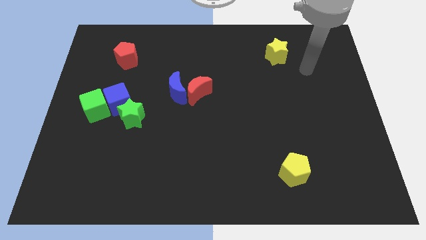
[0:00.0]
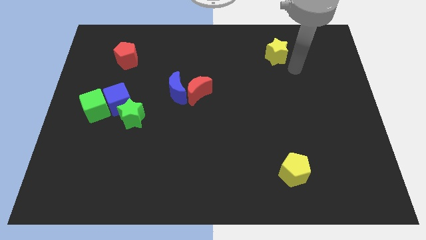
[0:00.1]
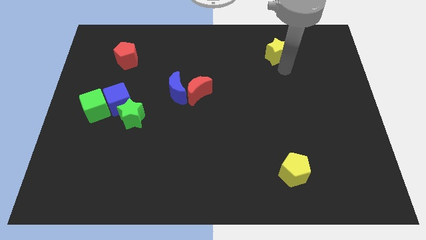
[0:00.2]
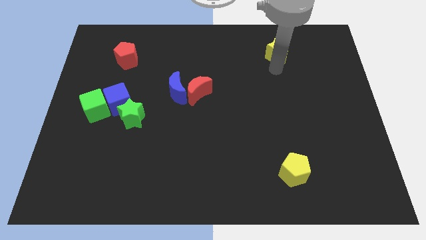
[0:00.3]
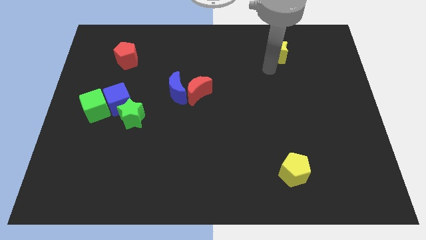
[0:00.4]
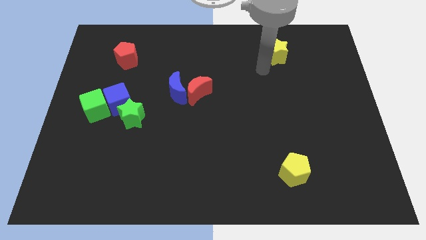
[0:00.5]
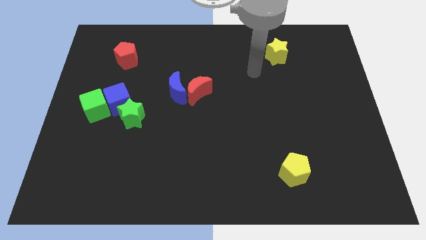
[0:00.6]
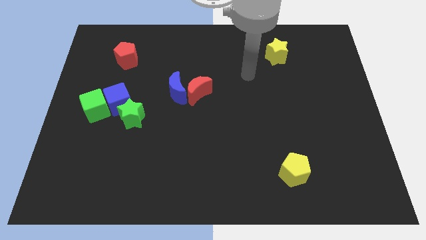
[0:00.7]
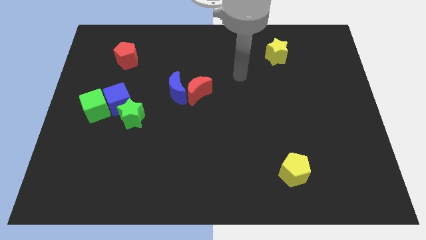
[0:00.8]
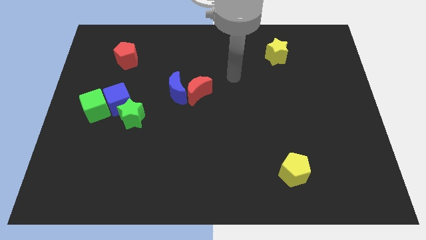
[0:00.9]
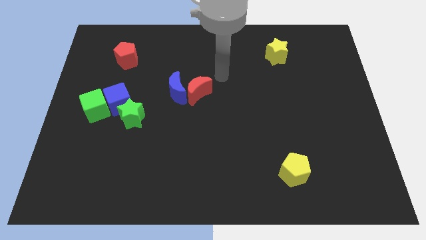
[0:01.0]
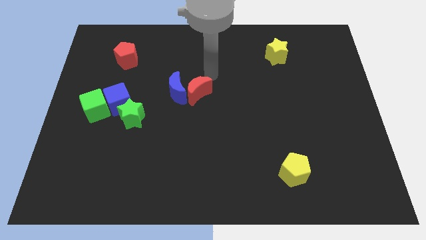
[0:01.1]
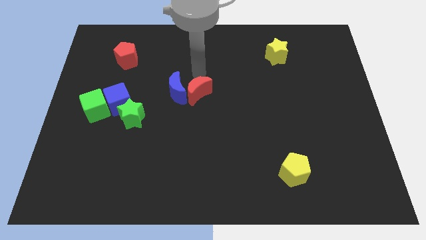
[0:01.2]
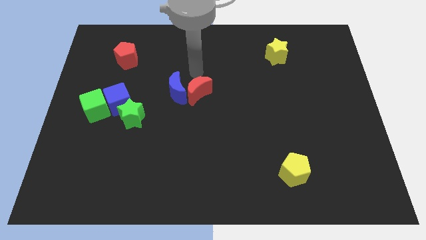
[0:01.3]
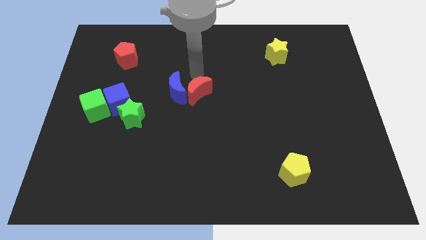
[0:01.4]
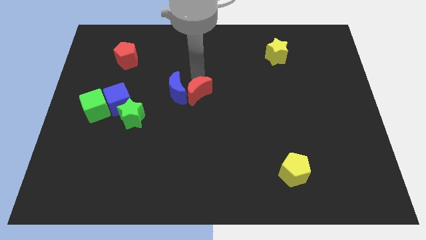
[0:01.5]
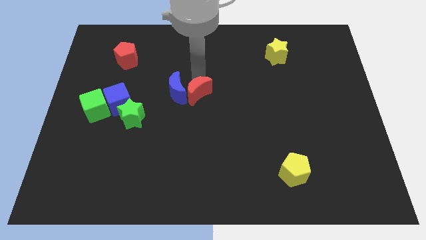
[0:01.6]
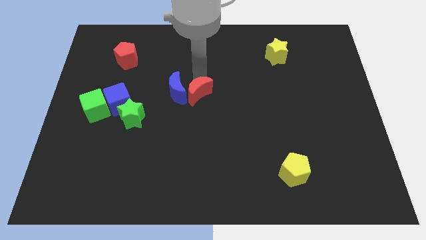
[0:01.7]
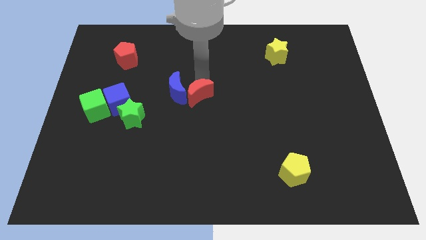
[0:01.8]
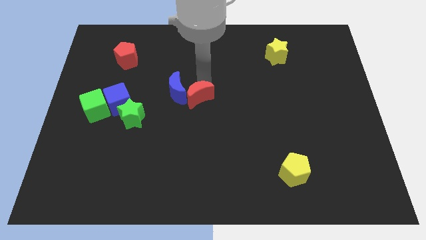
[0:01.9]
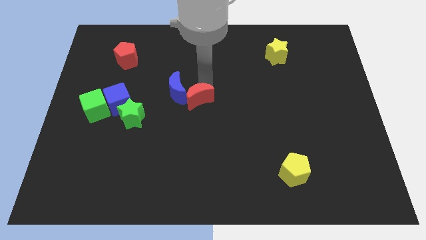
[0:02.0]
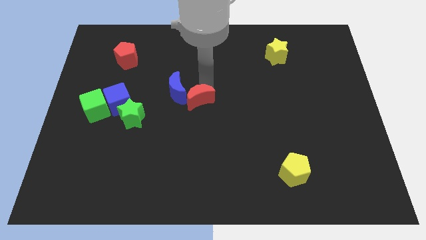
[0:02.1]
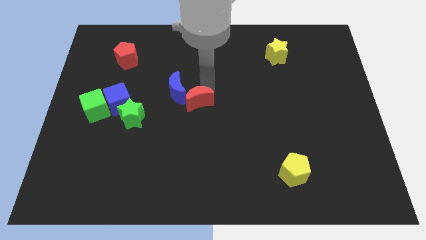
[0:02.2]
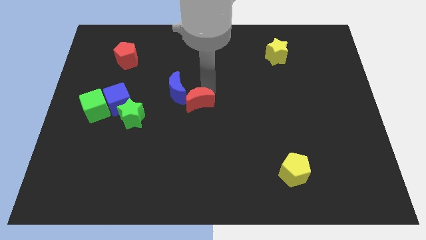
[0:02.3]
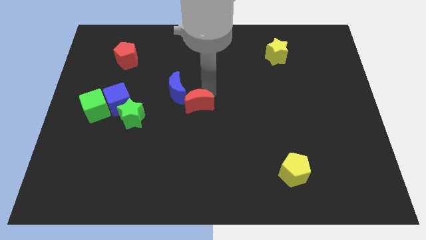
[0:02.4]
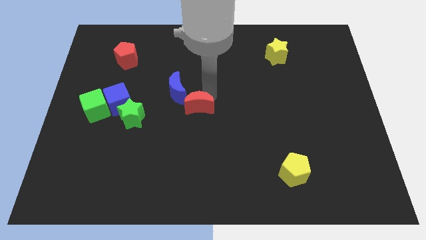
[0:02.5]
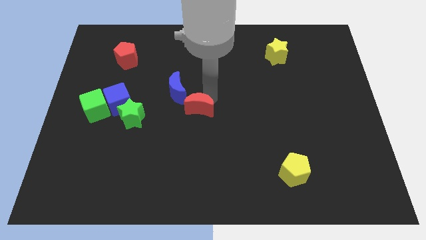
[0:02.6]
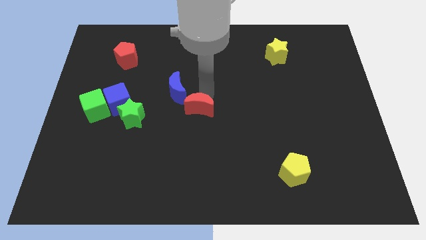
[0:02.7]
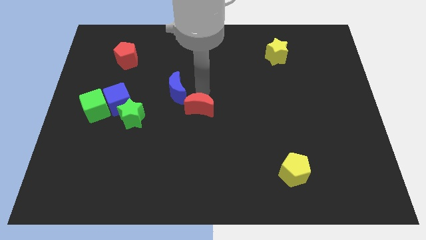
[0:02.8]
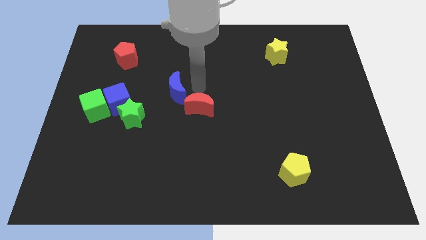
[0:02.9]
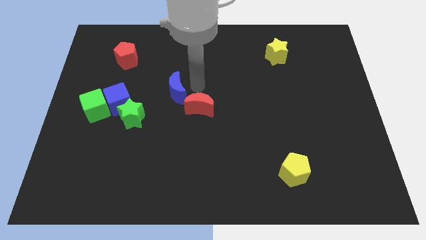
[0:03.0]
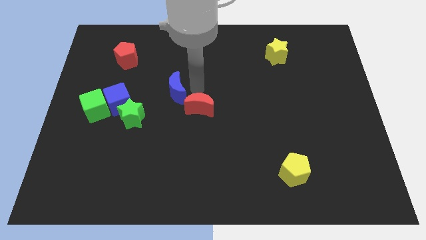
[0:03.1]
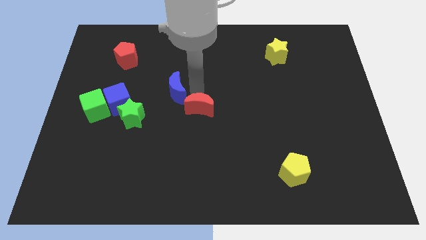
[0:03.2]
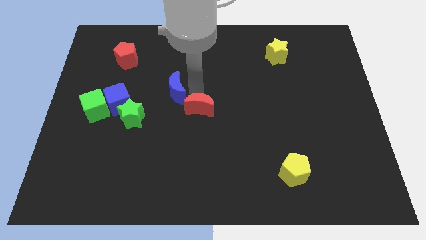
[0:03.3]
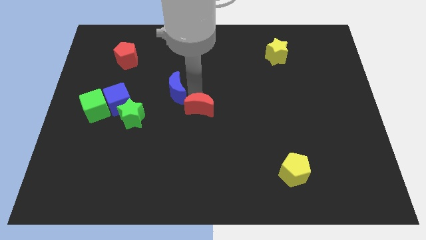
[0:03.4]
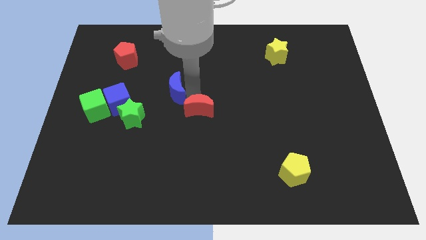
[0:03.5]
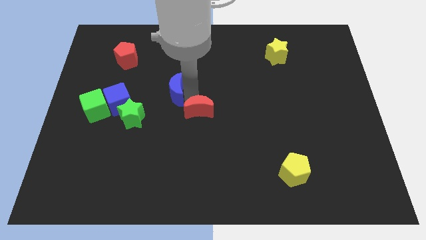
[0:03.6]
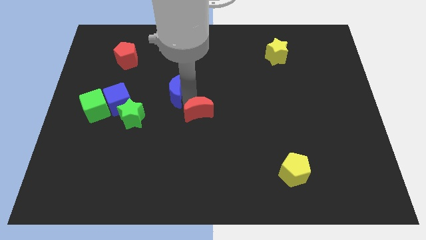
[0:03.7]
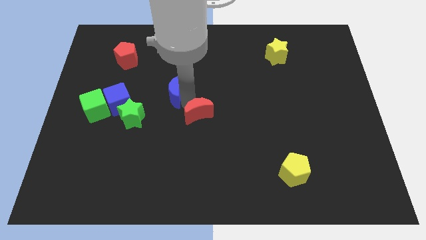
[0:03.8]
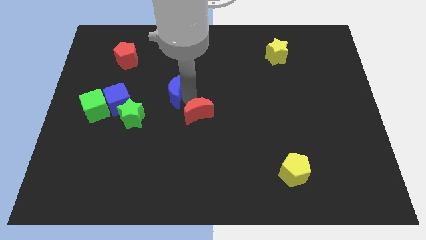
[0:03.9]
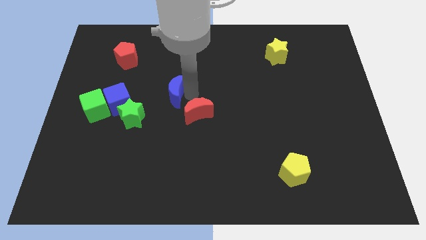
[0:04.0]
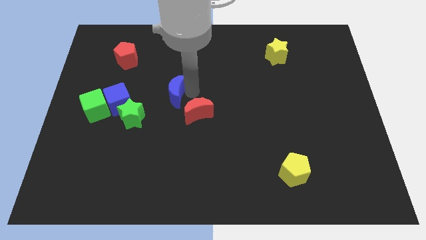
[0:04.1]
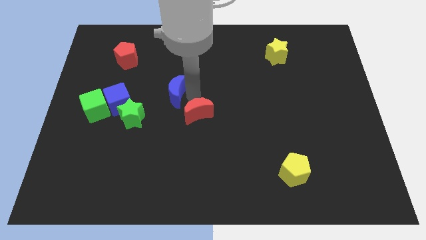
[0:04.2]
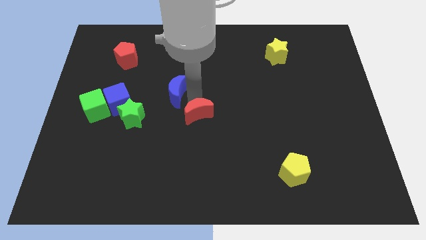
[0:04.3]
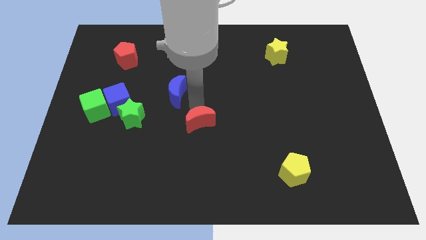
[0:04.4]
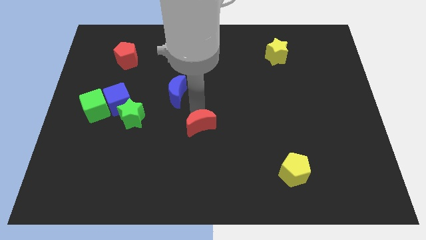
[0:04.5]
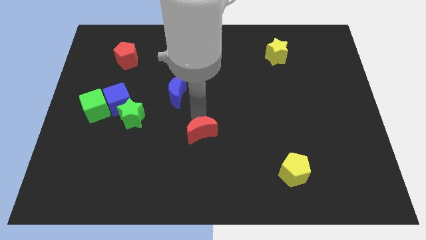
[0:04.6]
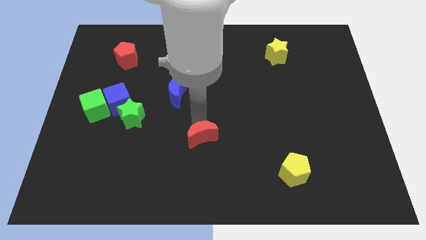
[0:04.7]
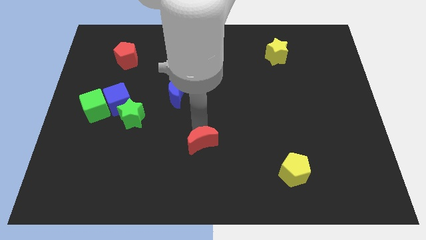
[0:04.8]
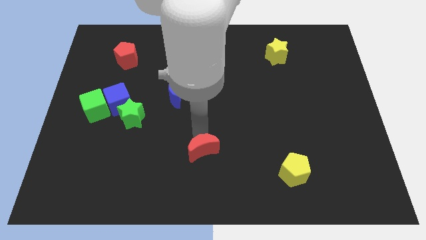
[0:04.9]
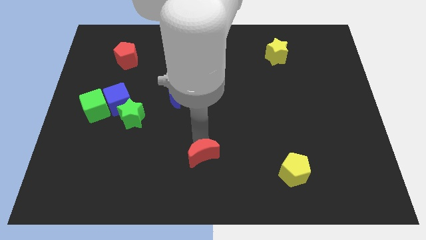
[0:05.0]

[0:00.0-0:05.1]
push the red moon to the bottom

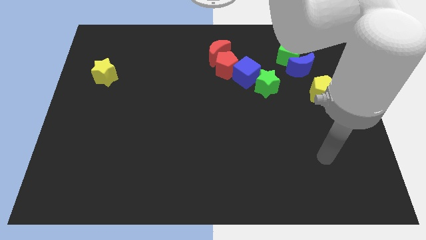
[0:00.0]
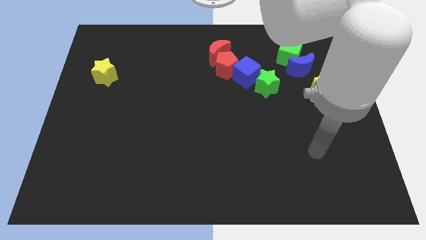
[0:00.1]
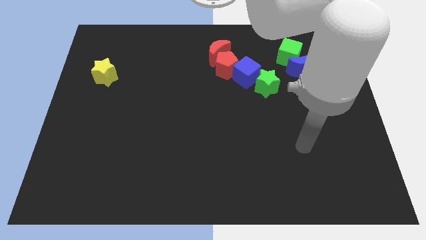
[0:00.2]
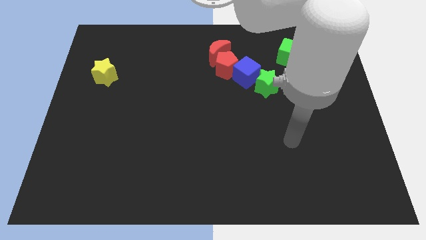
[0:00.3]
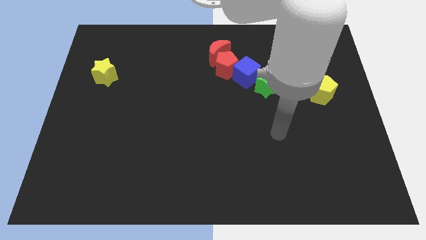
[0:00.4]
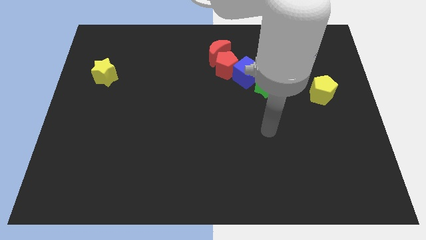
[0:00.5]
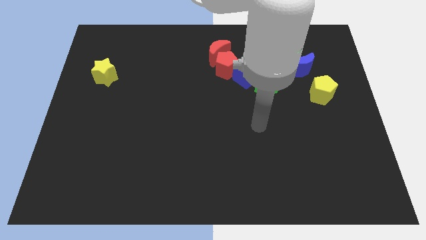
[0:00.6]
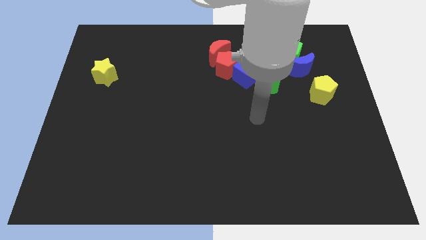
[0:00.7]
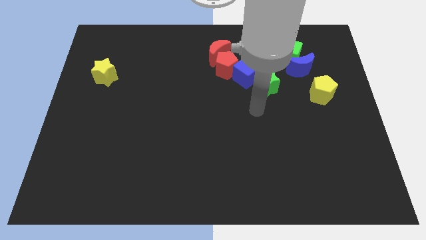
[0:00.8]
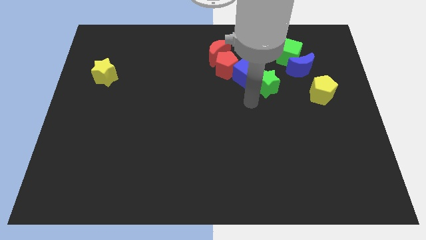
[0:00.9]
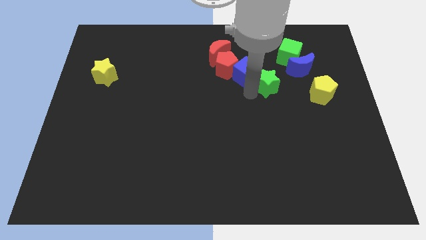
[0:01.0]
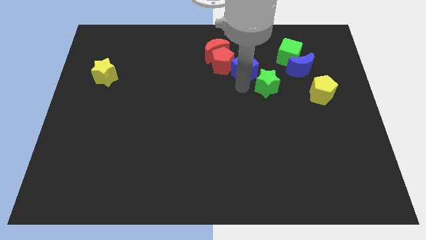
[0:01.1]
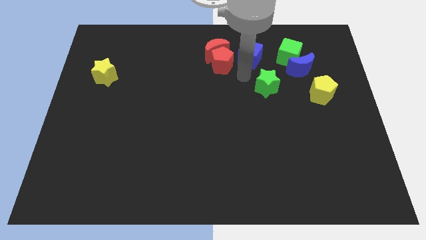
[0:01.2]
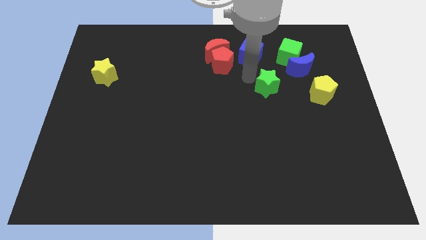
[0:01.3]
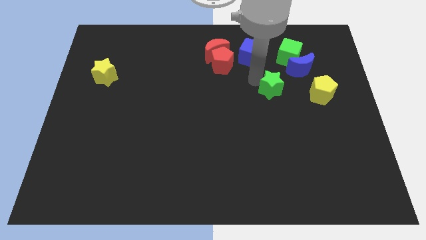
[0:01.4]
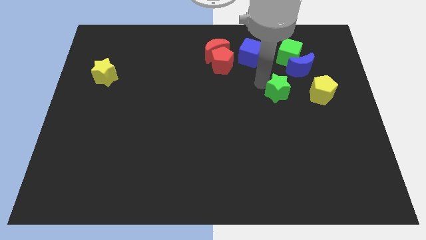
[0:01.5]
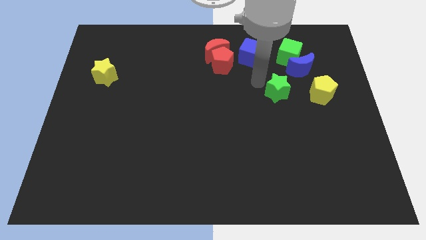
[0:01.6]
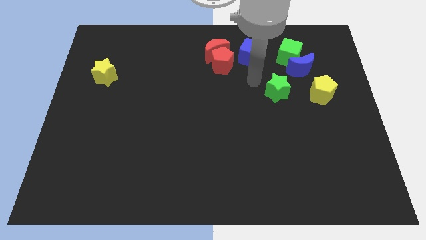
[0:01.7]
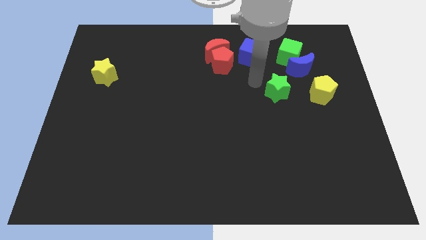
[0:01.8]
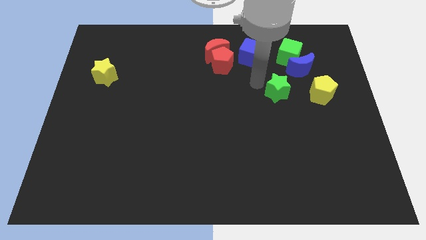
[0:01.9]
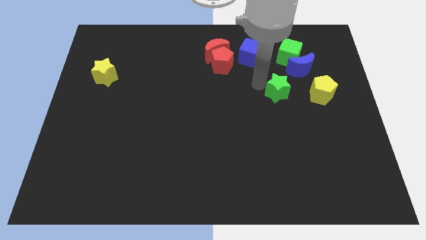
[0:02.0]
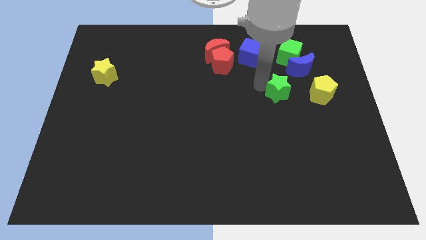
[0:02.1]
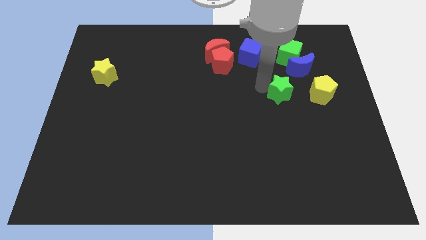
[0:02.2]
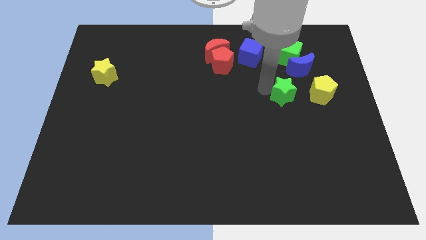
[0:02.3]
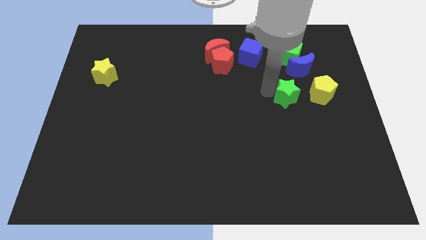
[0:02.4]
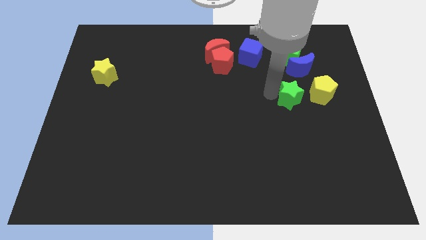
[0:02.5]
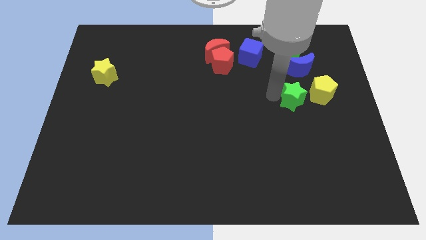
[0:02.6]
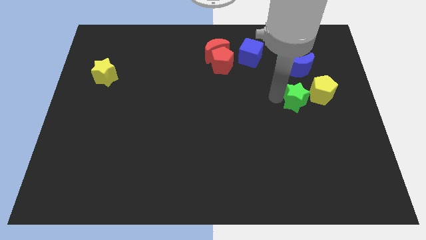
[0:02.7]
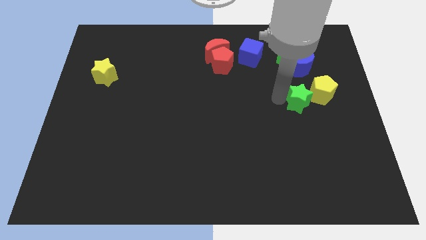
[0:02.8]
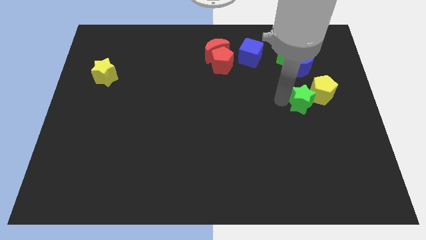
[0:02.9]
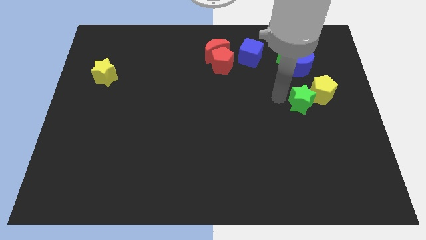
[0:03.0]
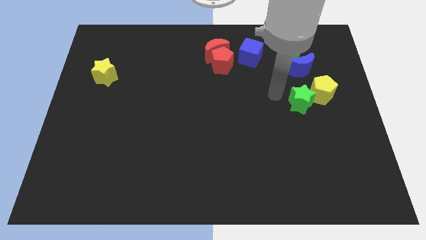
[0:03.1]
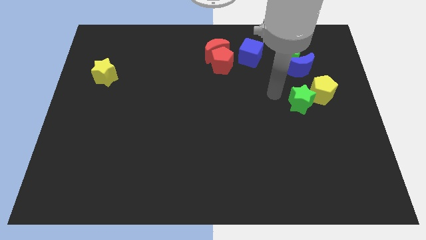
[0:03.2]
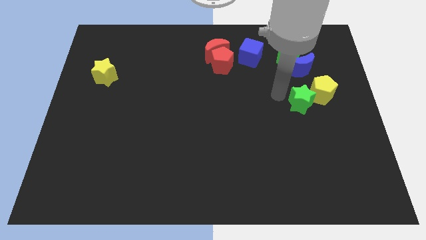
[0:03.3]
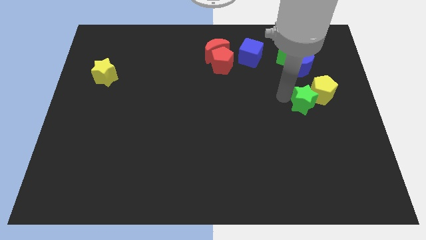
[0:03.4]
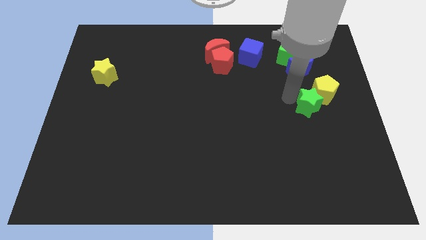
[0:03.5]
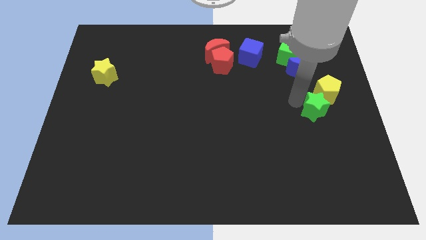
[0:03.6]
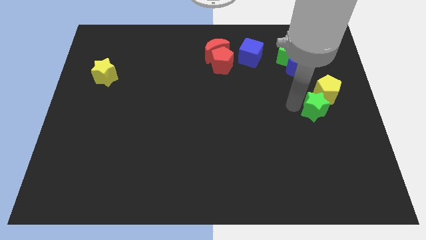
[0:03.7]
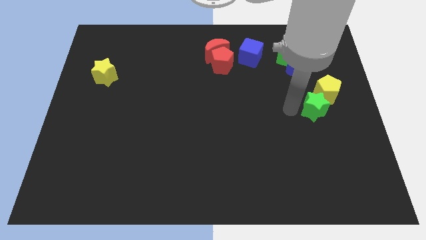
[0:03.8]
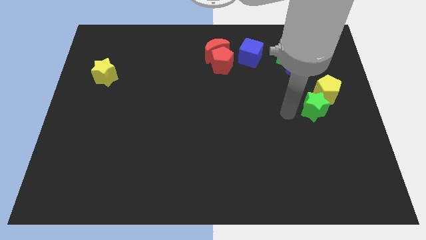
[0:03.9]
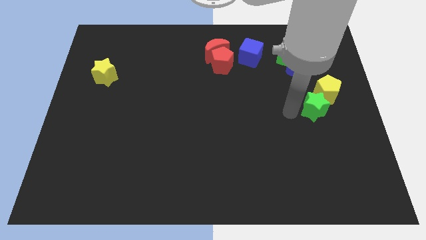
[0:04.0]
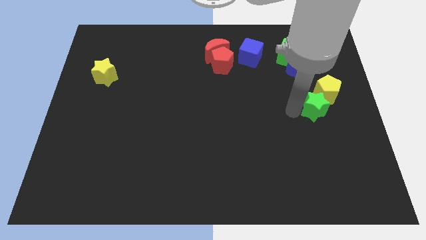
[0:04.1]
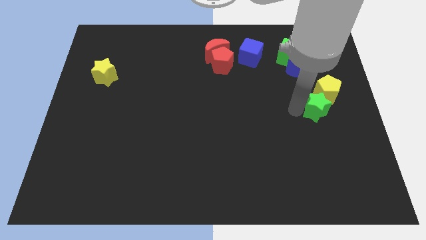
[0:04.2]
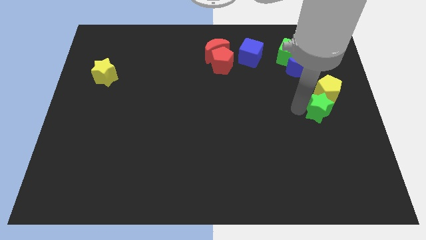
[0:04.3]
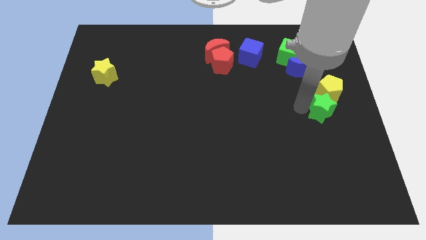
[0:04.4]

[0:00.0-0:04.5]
put the green star to the right side of the board
